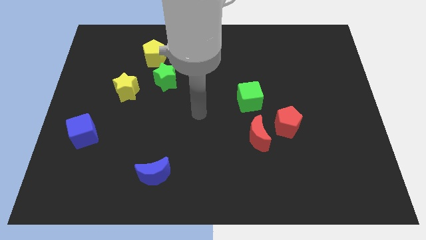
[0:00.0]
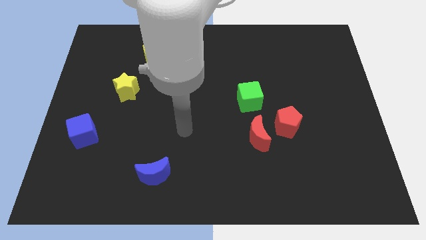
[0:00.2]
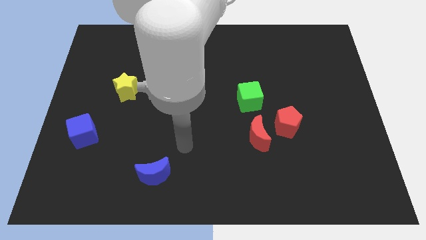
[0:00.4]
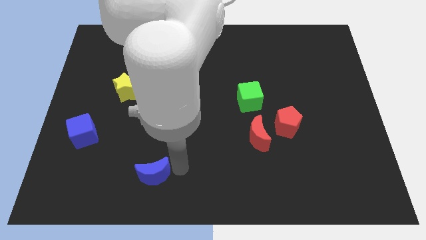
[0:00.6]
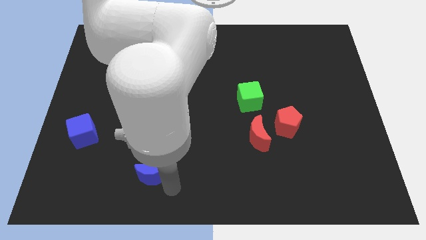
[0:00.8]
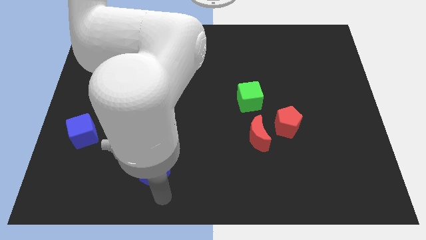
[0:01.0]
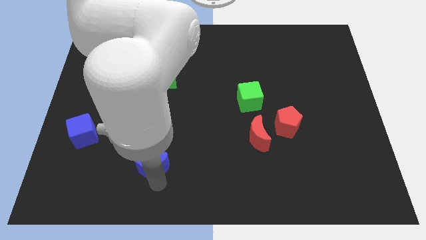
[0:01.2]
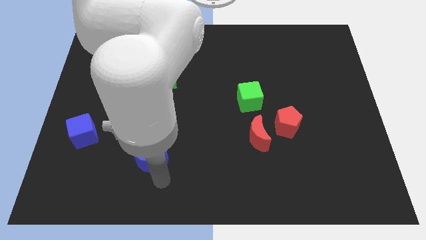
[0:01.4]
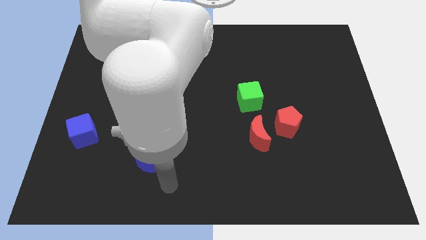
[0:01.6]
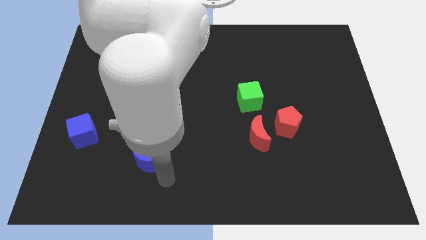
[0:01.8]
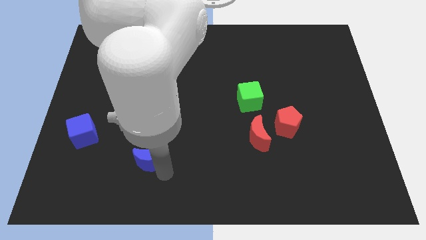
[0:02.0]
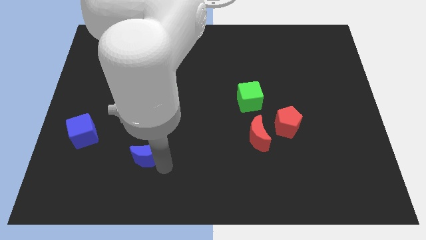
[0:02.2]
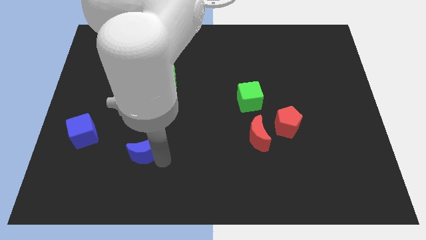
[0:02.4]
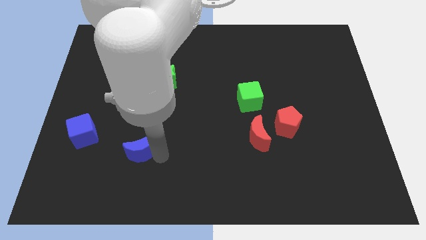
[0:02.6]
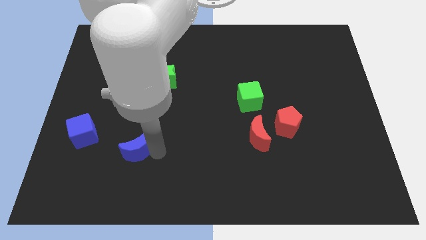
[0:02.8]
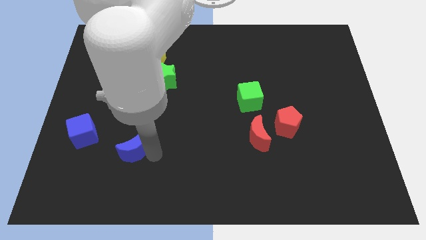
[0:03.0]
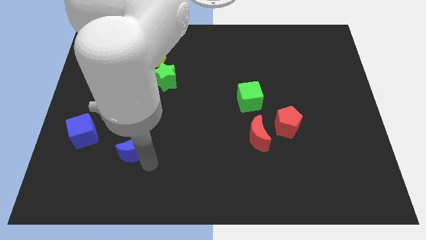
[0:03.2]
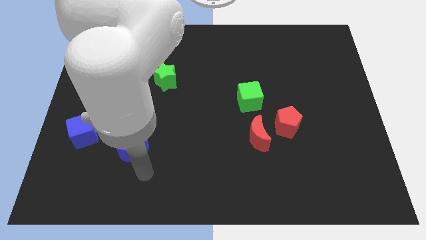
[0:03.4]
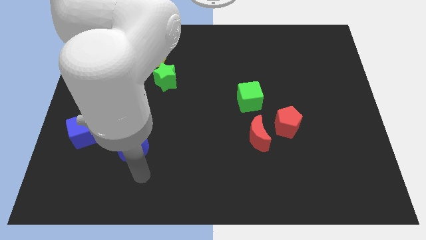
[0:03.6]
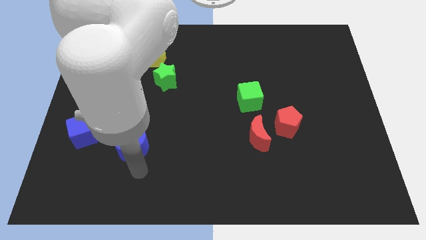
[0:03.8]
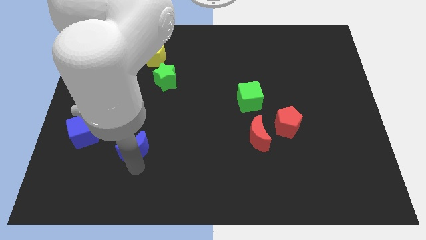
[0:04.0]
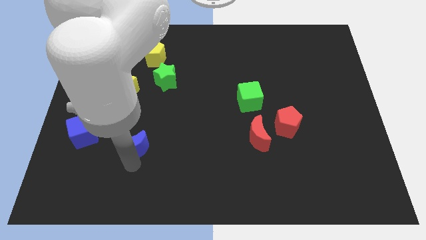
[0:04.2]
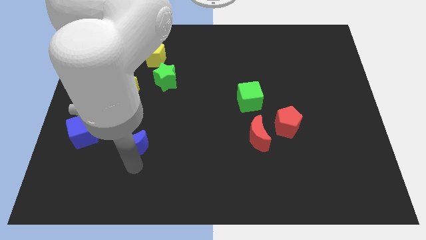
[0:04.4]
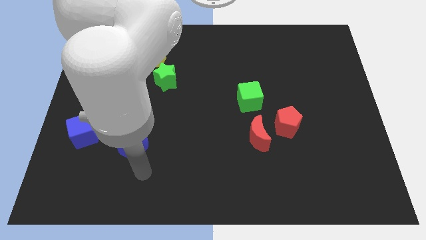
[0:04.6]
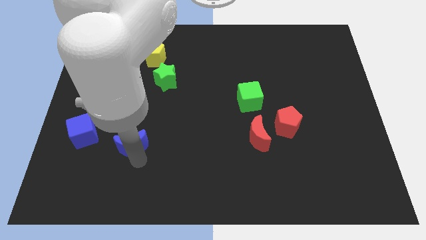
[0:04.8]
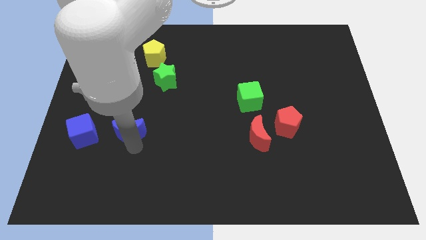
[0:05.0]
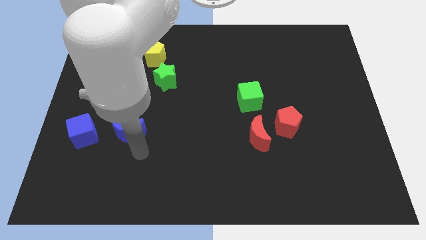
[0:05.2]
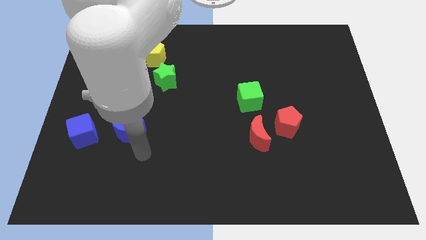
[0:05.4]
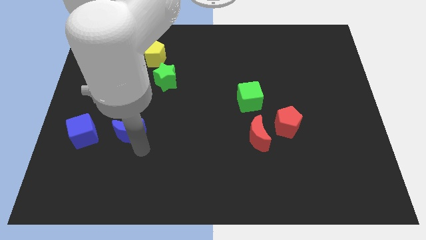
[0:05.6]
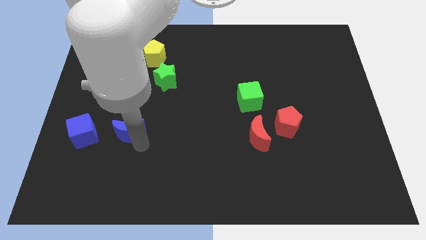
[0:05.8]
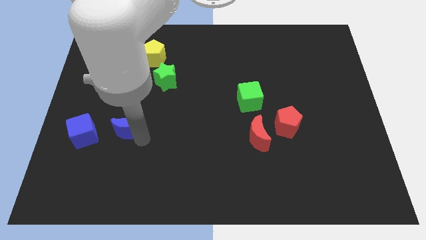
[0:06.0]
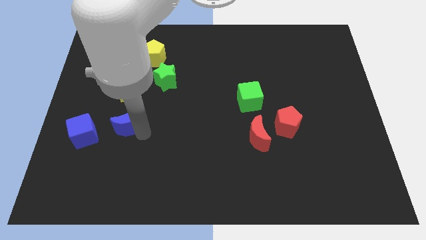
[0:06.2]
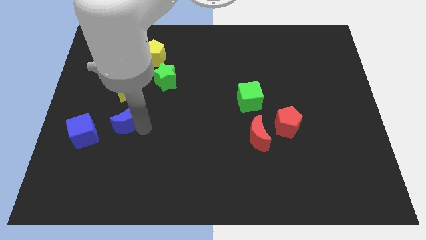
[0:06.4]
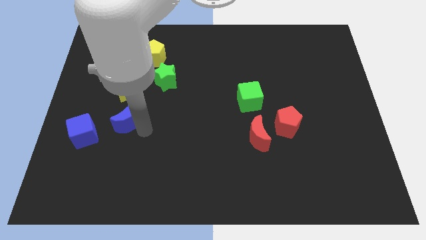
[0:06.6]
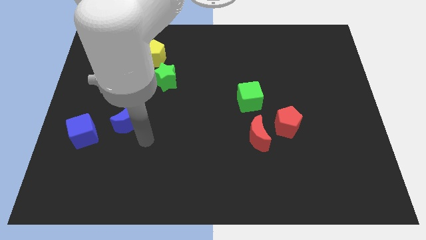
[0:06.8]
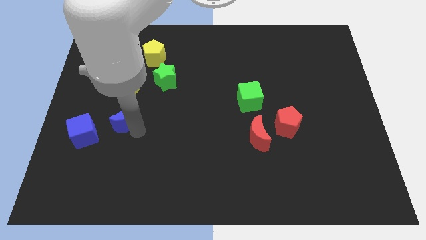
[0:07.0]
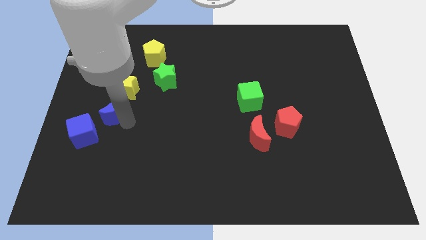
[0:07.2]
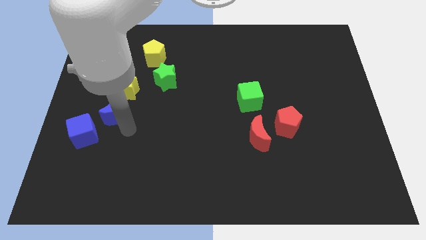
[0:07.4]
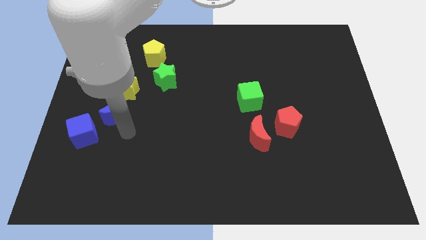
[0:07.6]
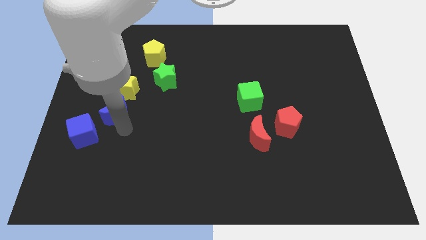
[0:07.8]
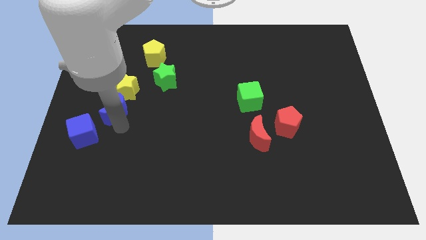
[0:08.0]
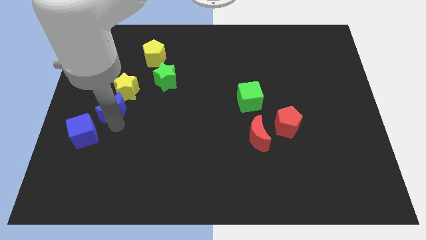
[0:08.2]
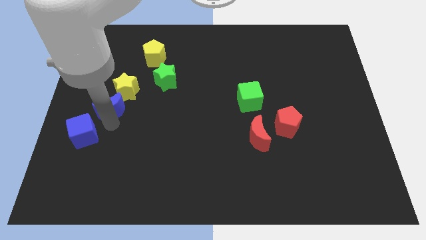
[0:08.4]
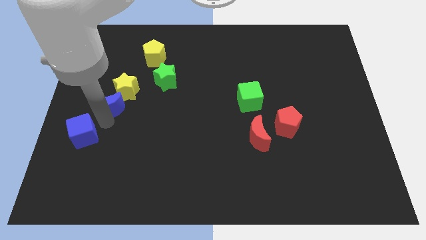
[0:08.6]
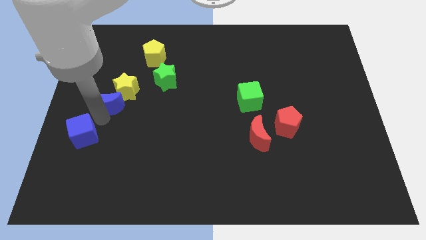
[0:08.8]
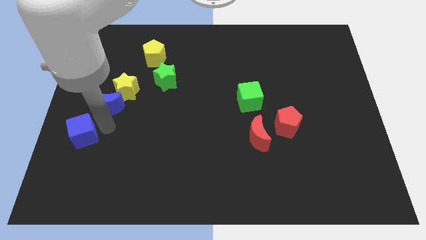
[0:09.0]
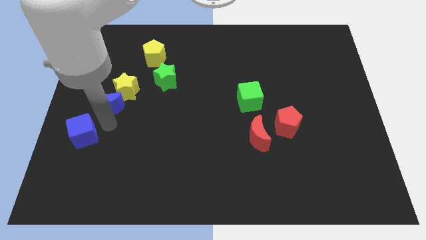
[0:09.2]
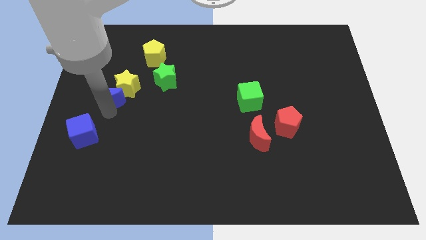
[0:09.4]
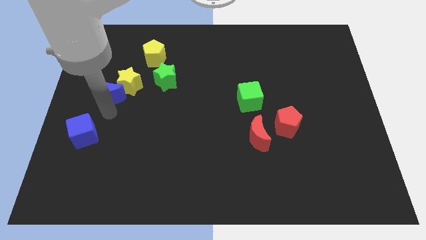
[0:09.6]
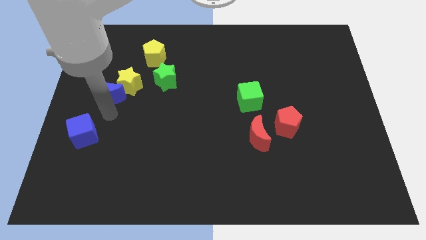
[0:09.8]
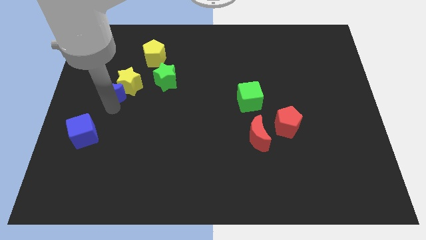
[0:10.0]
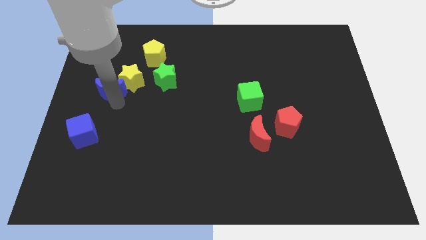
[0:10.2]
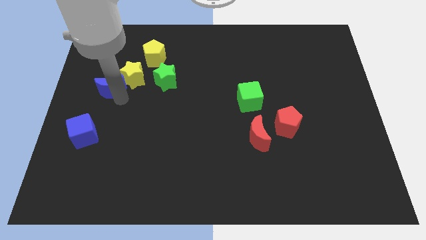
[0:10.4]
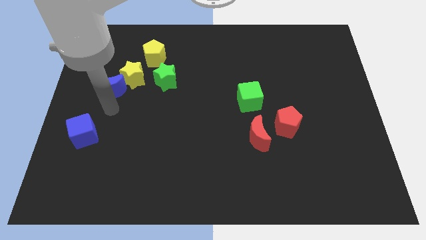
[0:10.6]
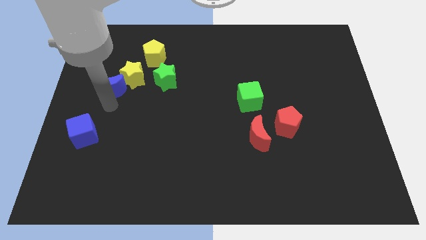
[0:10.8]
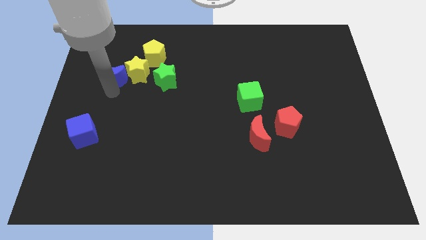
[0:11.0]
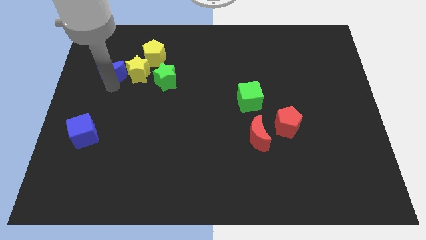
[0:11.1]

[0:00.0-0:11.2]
slide the blue moon to the top left of the yellow star

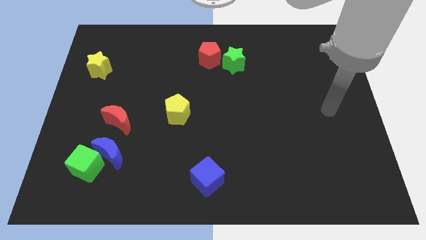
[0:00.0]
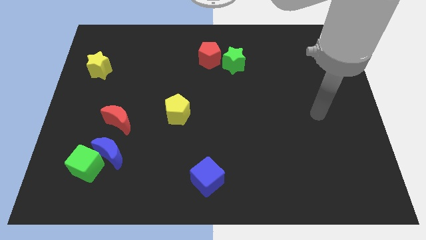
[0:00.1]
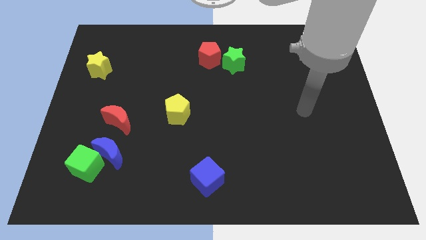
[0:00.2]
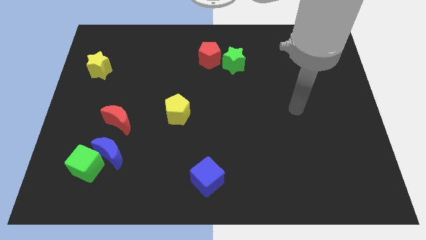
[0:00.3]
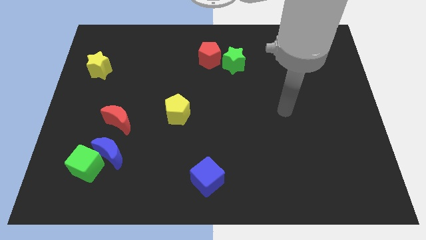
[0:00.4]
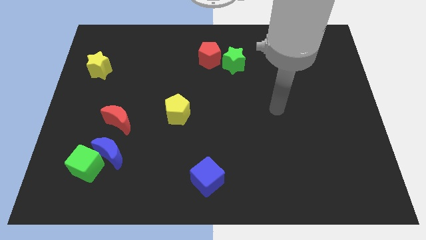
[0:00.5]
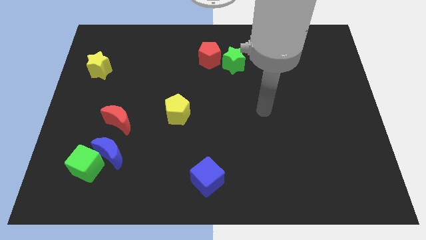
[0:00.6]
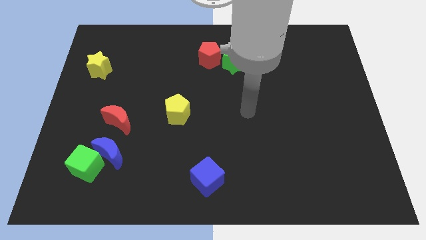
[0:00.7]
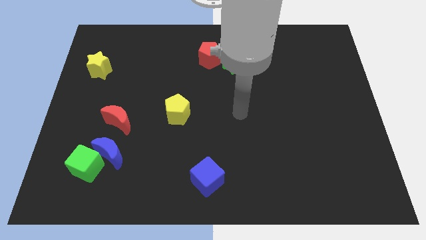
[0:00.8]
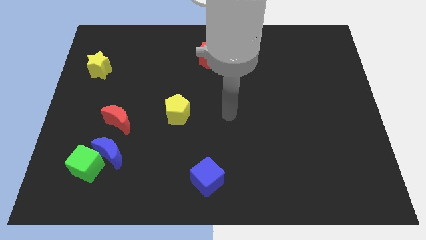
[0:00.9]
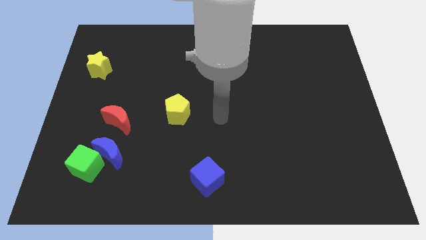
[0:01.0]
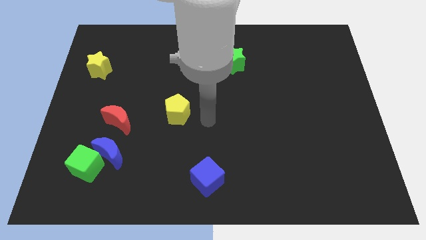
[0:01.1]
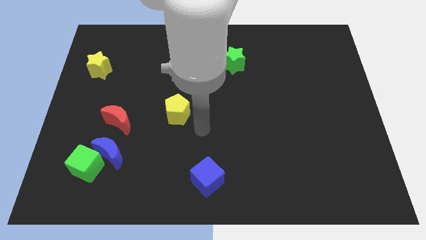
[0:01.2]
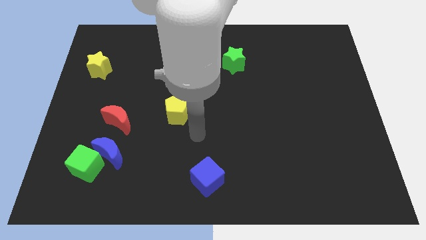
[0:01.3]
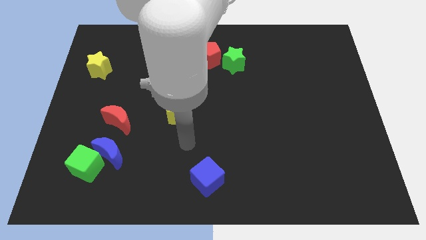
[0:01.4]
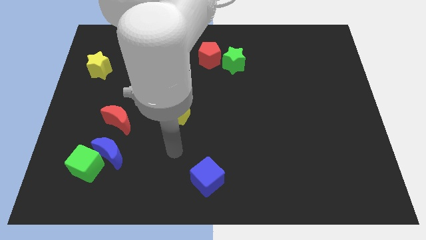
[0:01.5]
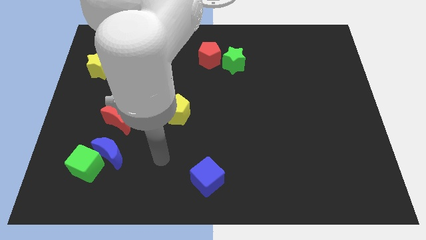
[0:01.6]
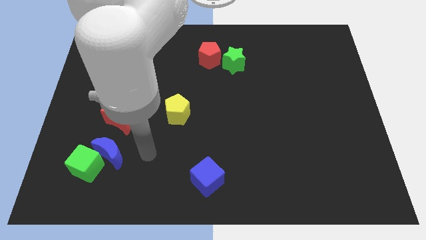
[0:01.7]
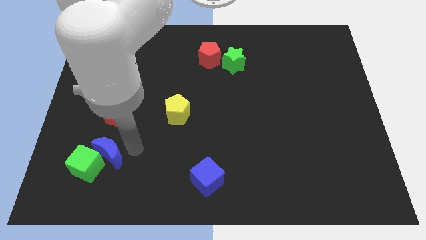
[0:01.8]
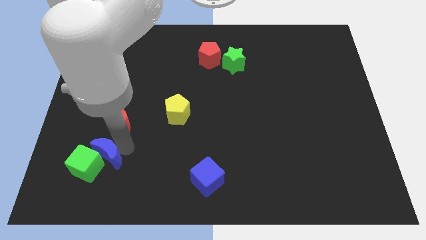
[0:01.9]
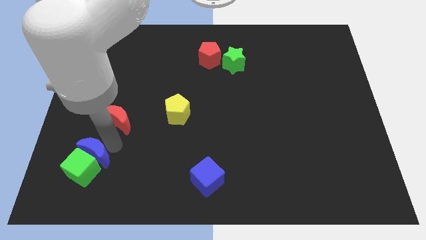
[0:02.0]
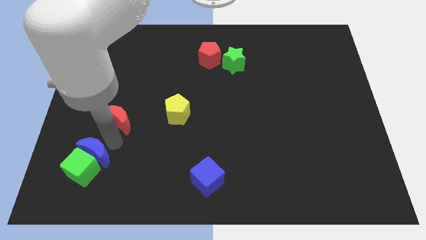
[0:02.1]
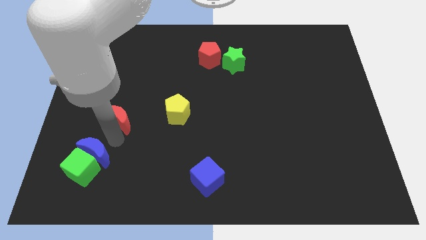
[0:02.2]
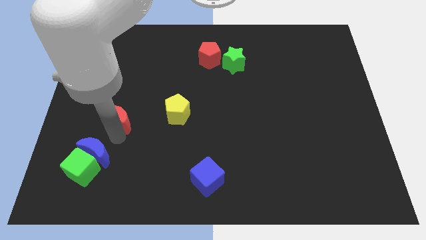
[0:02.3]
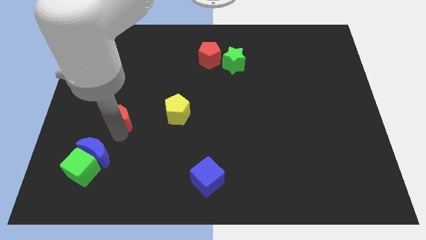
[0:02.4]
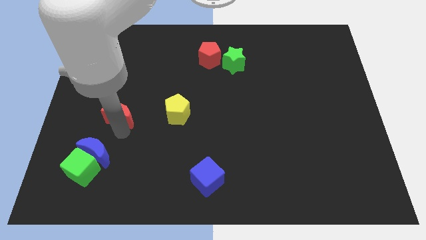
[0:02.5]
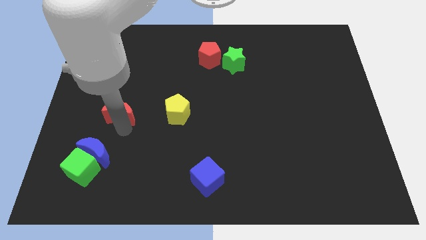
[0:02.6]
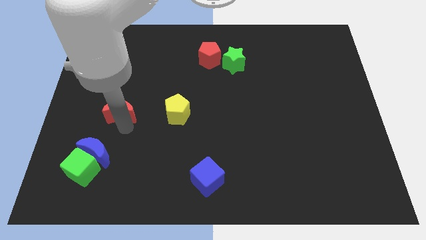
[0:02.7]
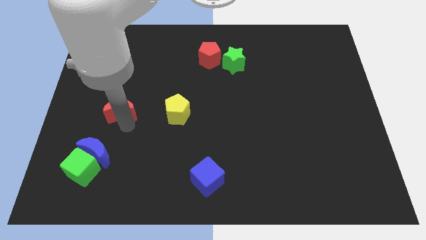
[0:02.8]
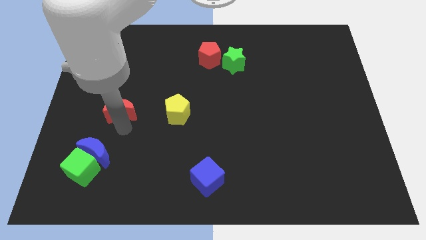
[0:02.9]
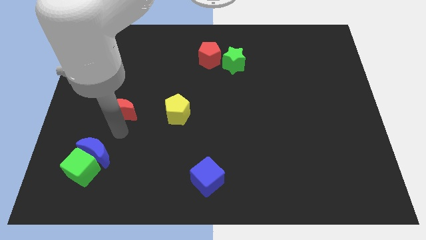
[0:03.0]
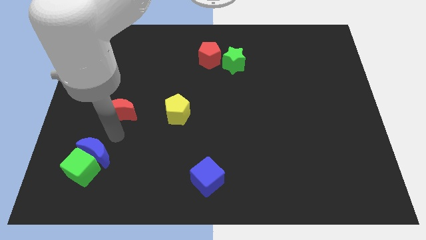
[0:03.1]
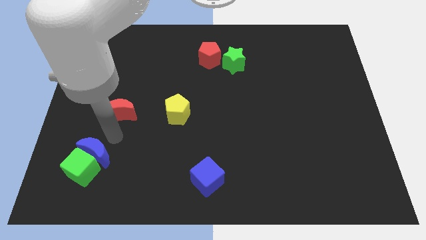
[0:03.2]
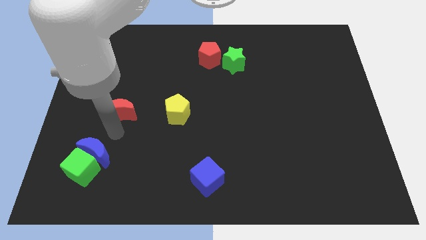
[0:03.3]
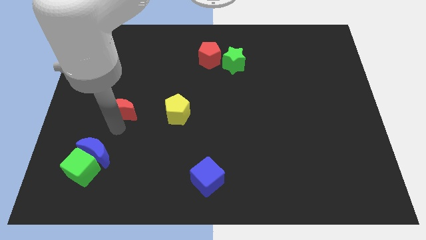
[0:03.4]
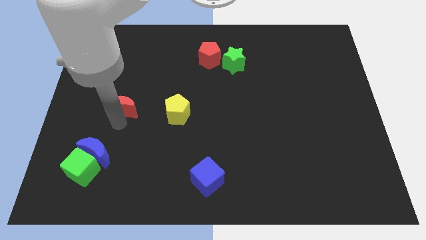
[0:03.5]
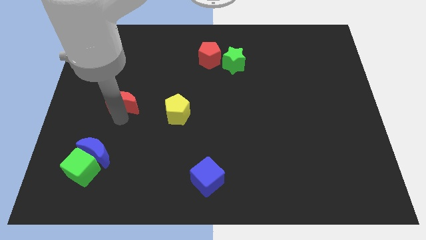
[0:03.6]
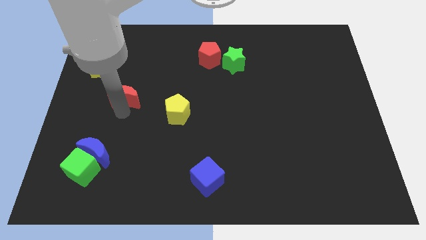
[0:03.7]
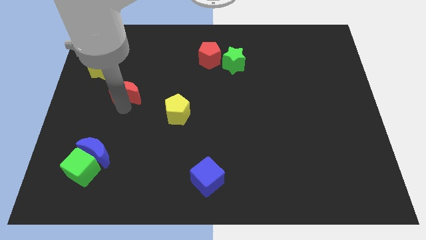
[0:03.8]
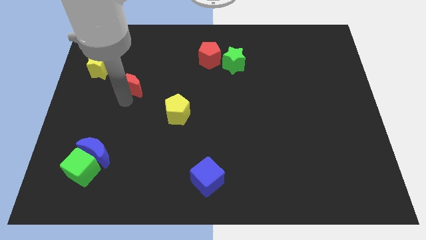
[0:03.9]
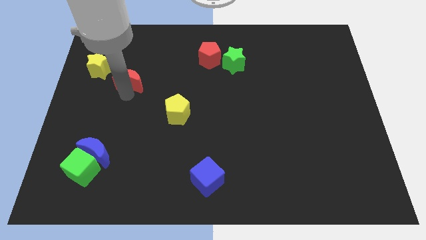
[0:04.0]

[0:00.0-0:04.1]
move the red moon to the right of the yellow star
